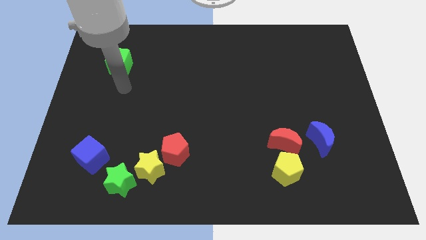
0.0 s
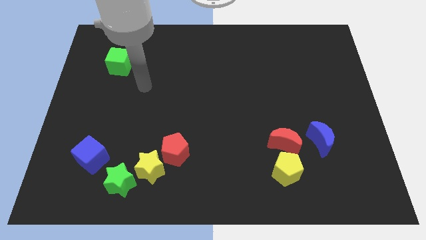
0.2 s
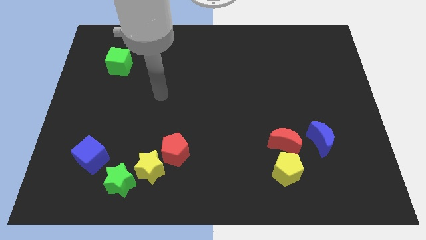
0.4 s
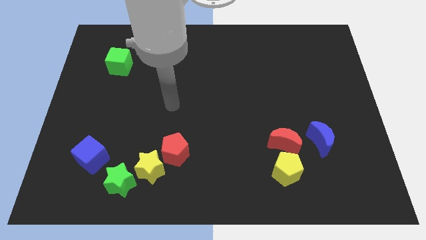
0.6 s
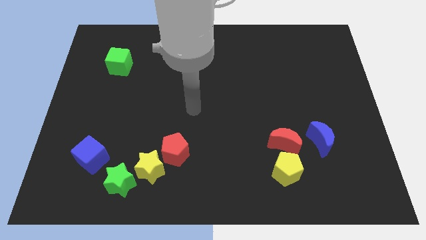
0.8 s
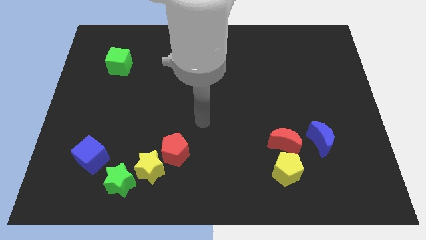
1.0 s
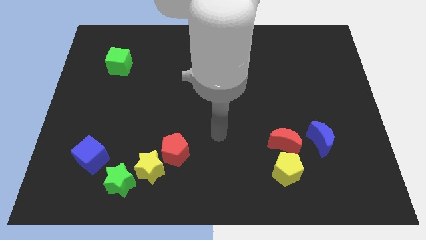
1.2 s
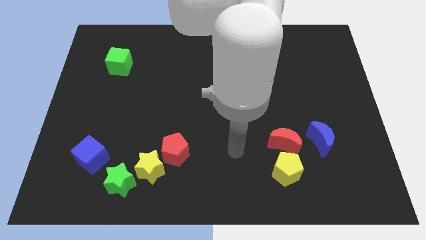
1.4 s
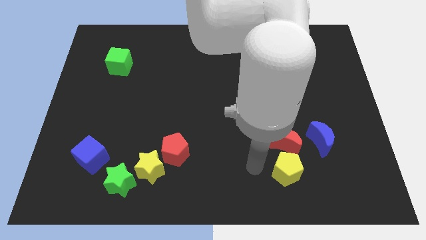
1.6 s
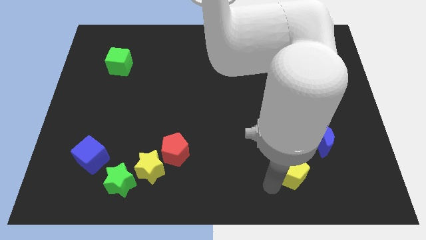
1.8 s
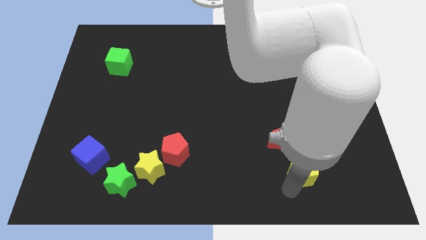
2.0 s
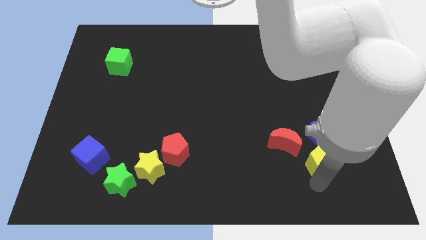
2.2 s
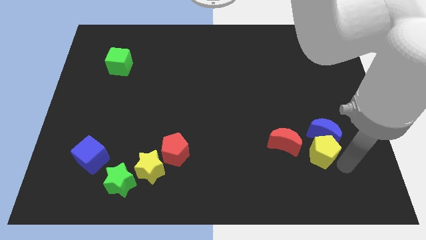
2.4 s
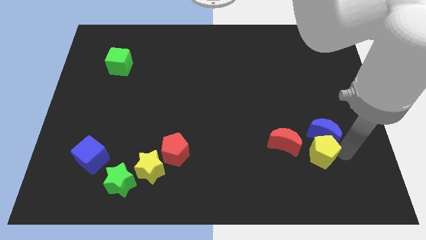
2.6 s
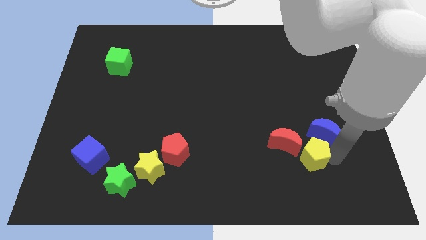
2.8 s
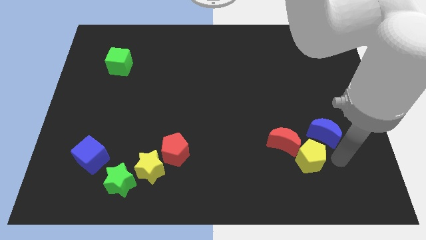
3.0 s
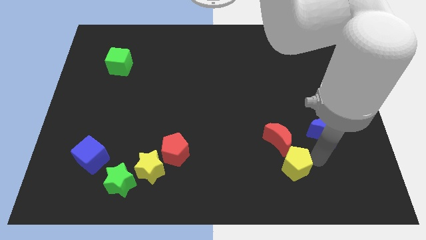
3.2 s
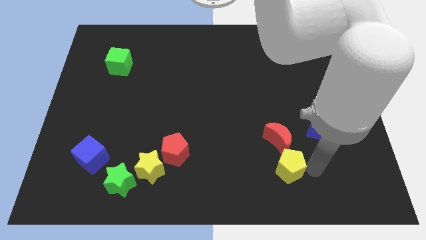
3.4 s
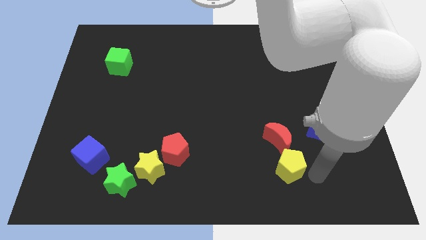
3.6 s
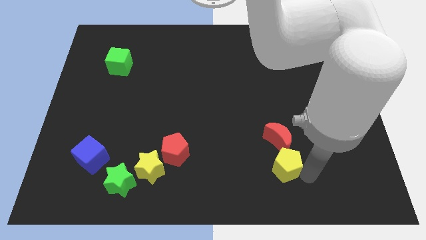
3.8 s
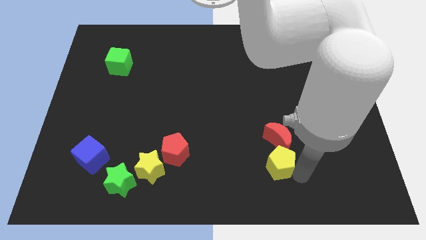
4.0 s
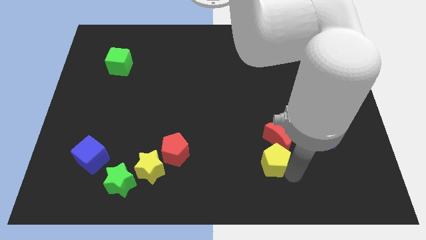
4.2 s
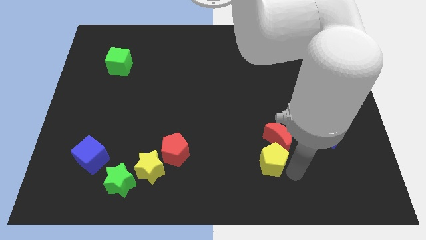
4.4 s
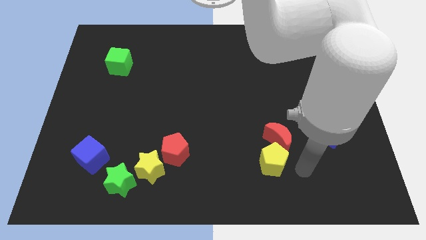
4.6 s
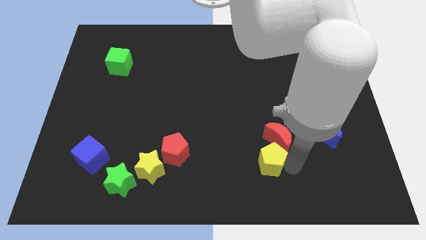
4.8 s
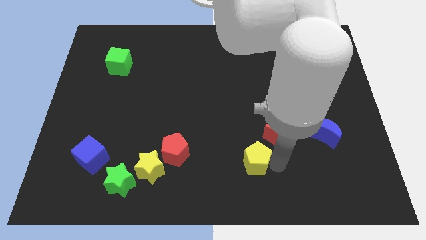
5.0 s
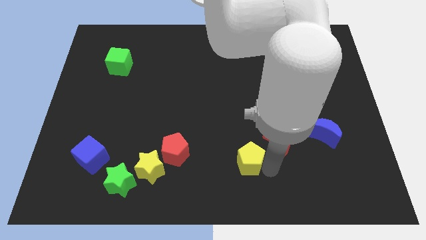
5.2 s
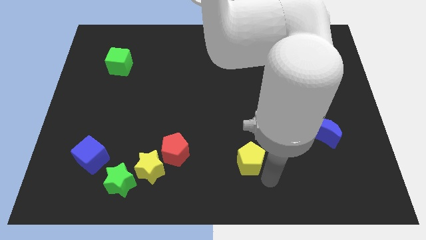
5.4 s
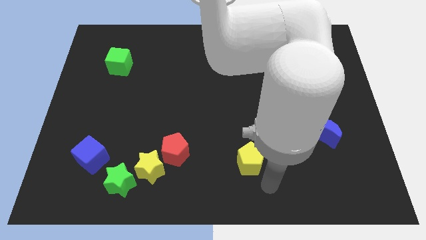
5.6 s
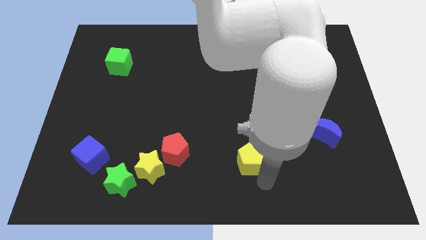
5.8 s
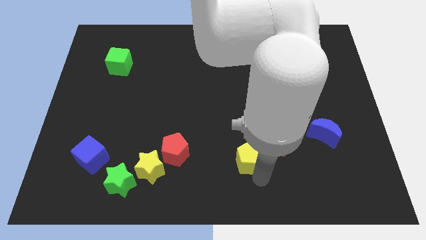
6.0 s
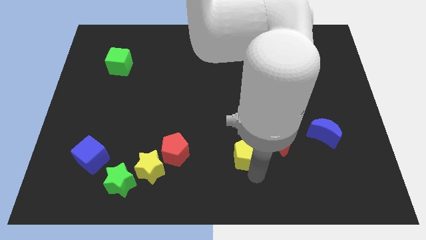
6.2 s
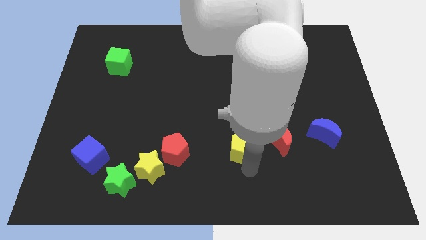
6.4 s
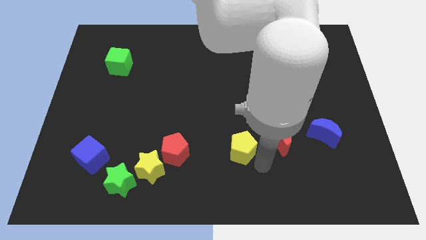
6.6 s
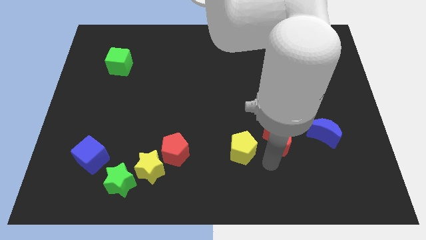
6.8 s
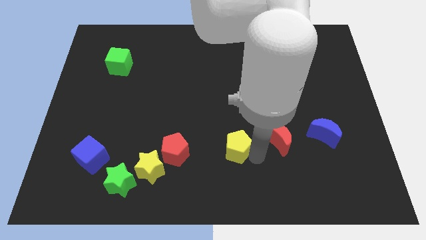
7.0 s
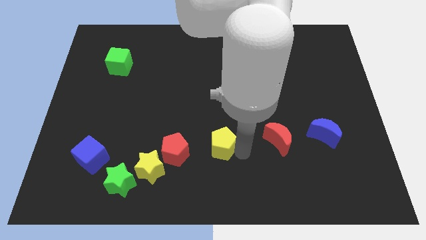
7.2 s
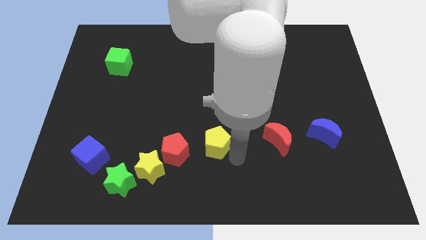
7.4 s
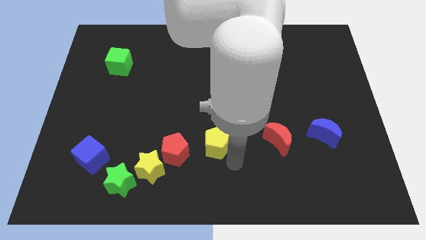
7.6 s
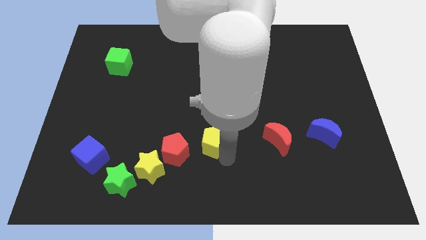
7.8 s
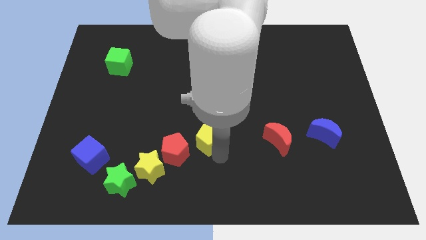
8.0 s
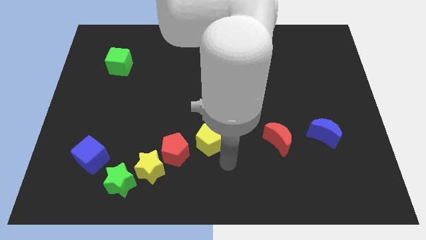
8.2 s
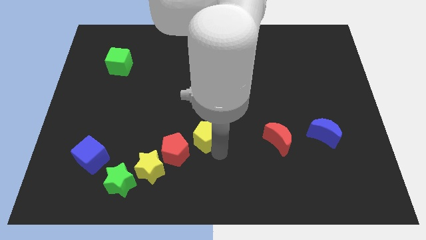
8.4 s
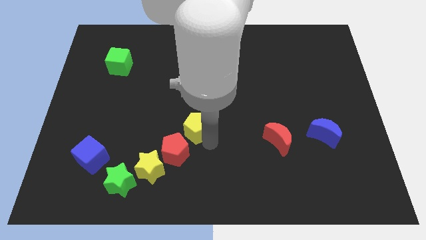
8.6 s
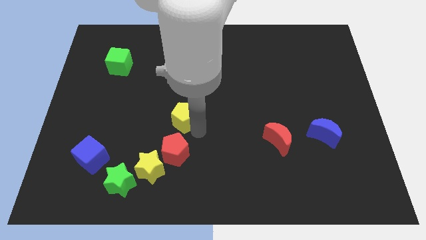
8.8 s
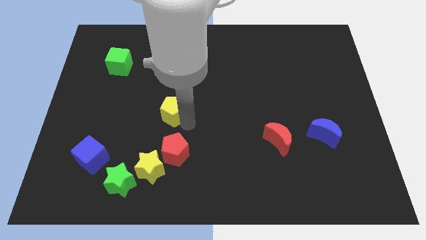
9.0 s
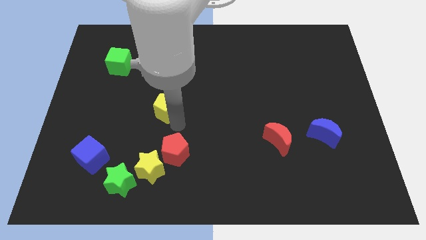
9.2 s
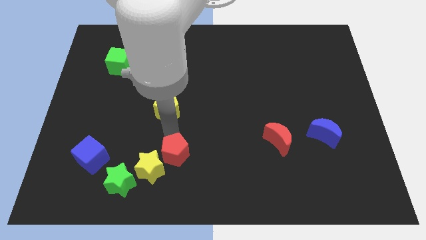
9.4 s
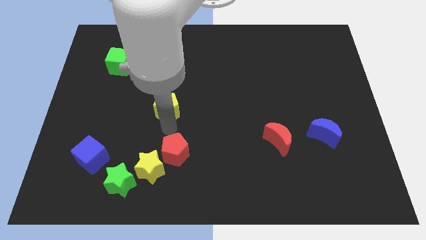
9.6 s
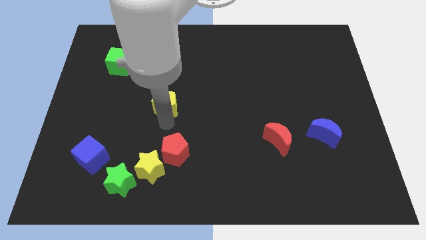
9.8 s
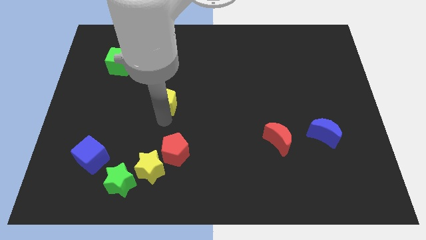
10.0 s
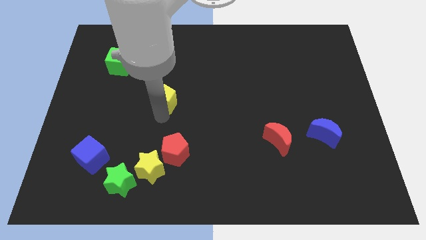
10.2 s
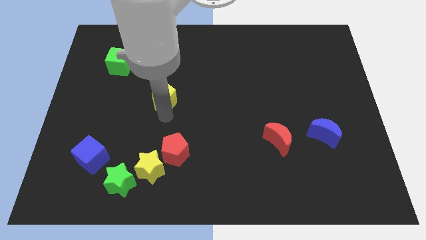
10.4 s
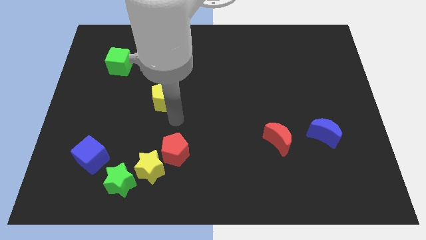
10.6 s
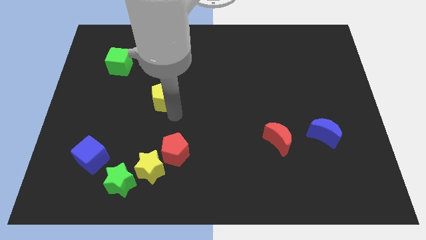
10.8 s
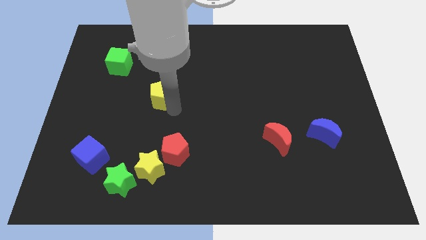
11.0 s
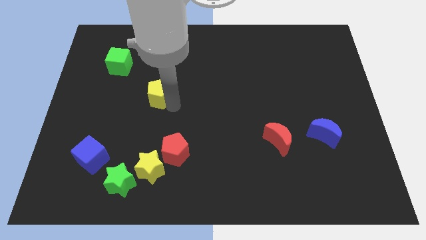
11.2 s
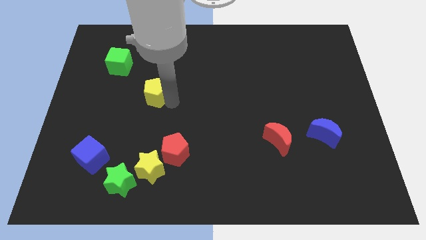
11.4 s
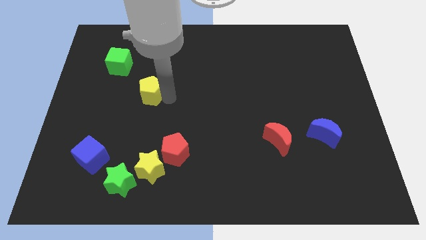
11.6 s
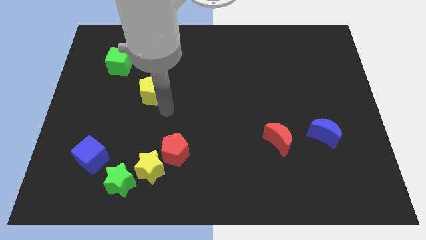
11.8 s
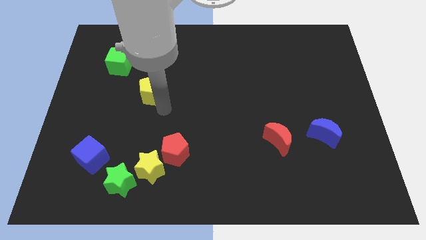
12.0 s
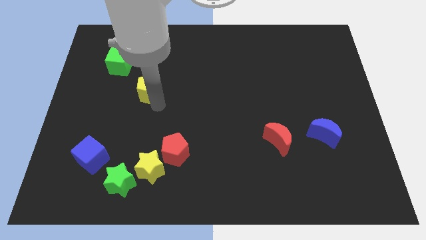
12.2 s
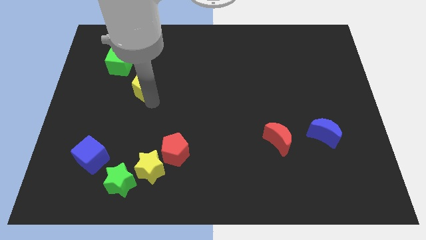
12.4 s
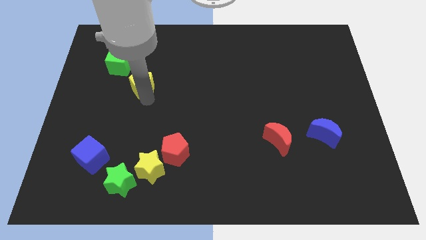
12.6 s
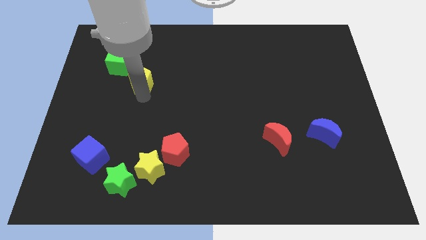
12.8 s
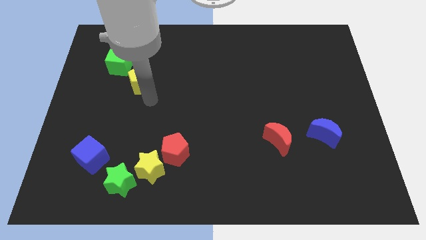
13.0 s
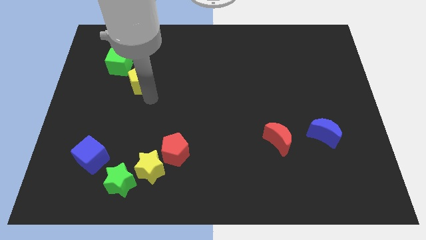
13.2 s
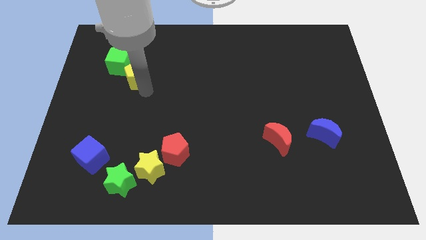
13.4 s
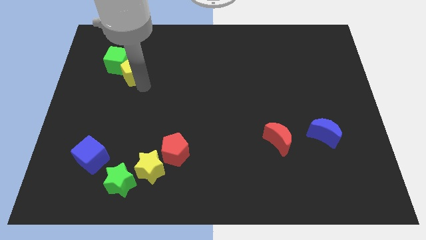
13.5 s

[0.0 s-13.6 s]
put the yellow pentagon to the green cube

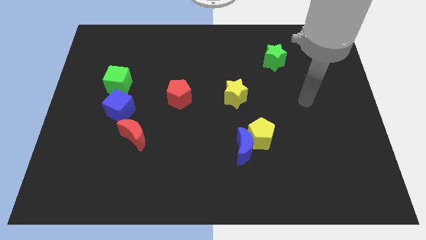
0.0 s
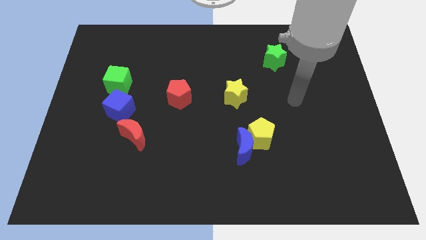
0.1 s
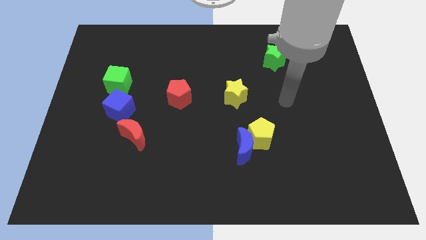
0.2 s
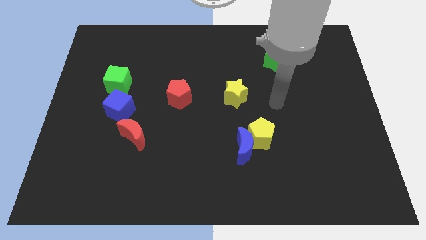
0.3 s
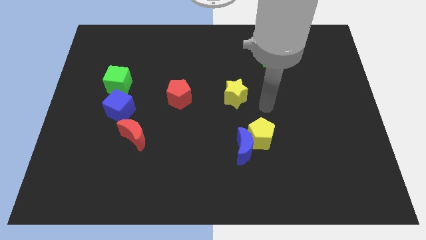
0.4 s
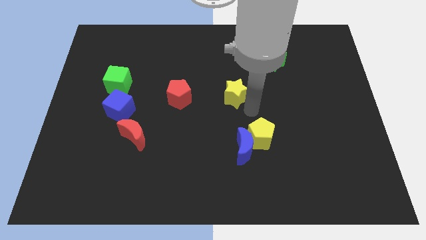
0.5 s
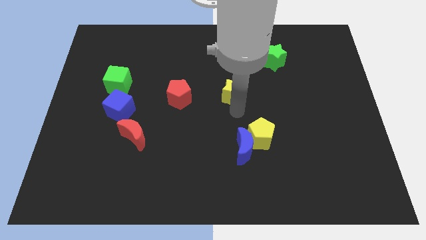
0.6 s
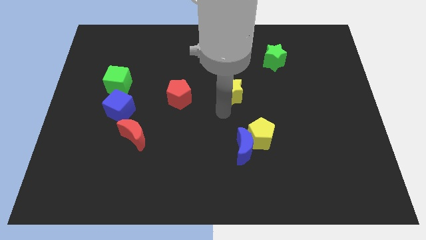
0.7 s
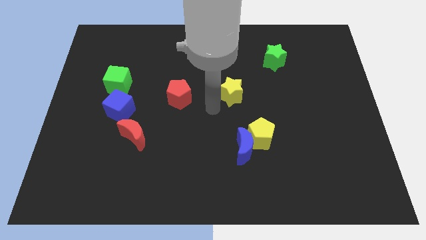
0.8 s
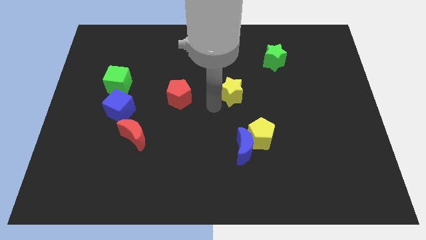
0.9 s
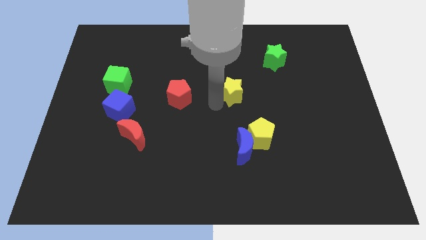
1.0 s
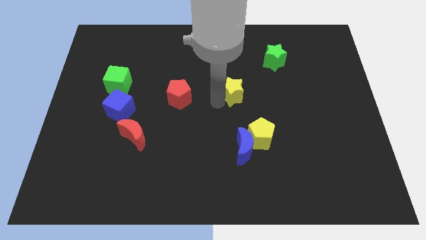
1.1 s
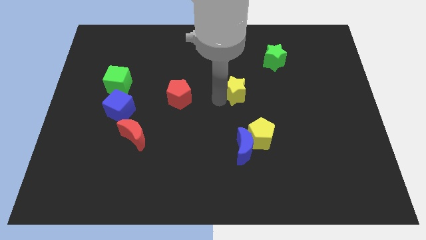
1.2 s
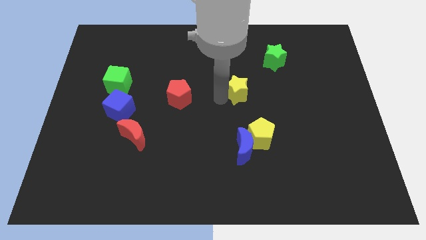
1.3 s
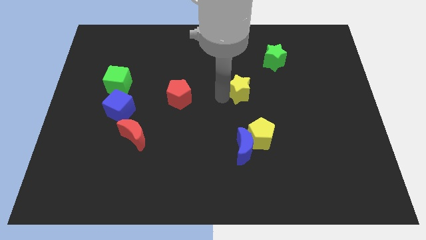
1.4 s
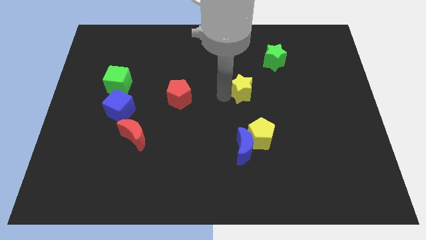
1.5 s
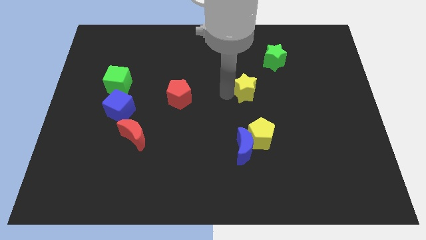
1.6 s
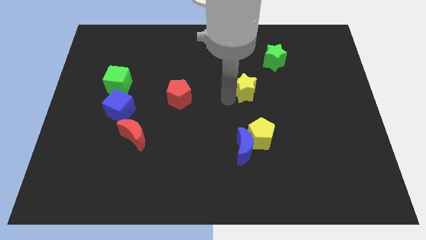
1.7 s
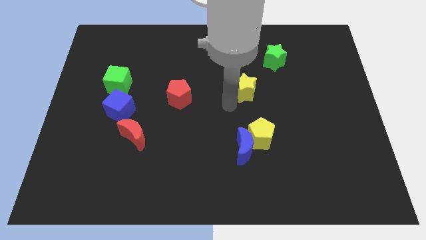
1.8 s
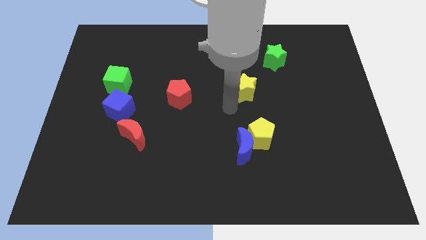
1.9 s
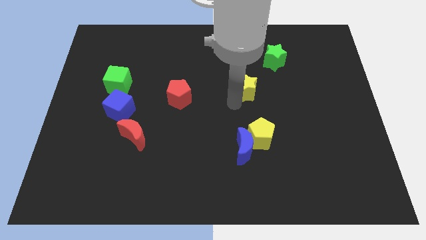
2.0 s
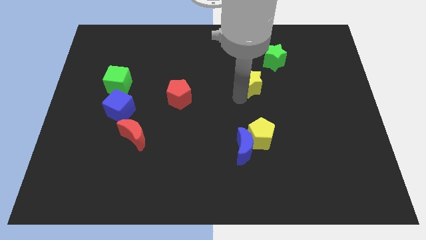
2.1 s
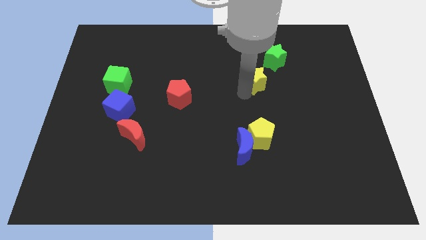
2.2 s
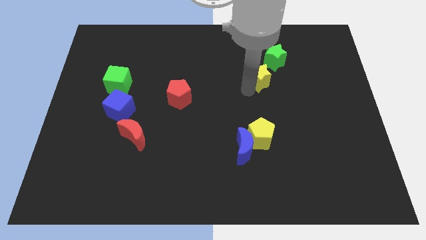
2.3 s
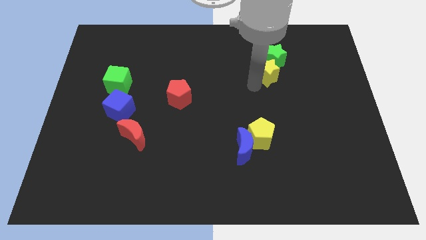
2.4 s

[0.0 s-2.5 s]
put the yellow star to the green star
